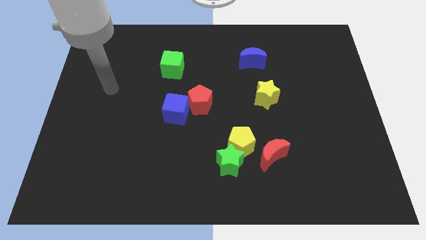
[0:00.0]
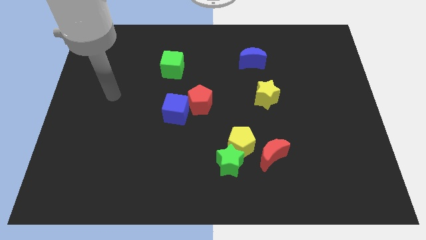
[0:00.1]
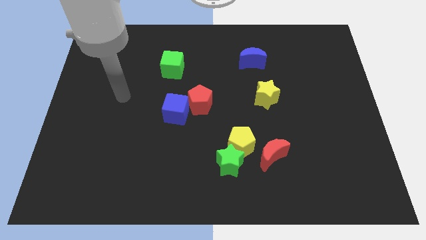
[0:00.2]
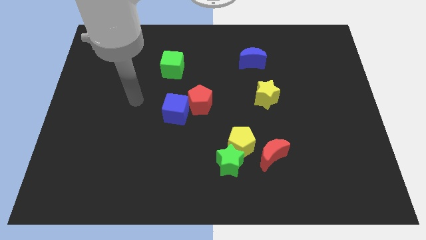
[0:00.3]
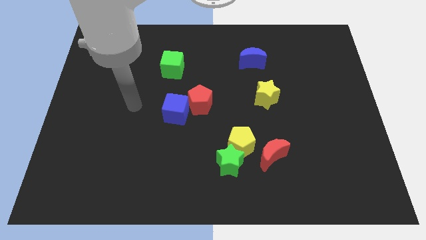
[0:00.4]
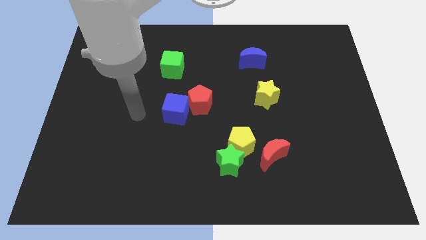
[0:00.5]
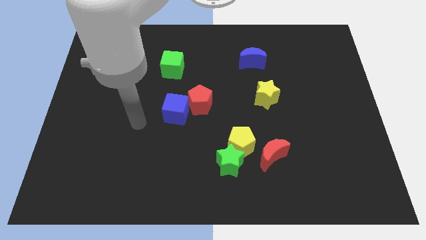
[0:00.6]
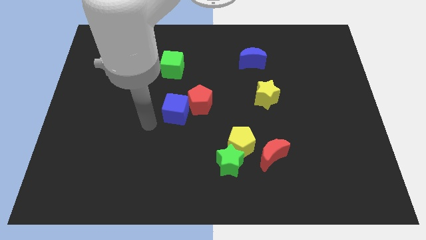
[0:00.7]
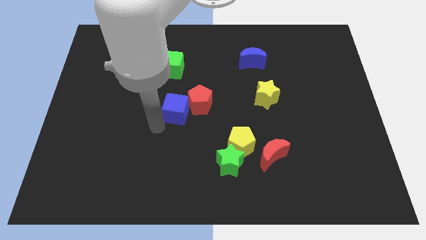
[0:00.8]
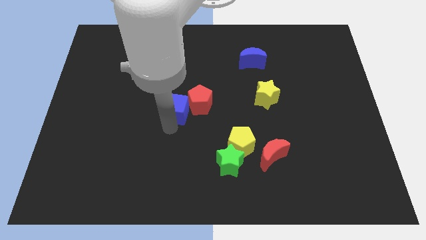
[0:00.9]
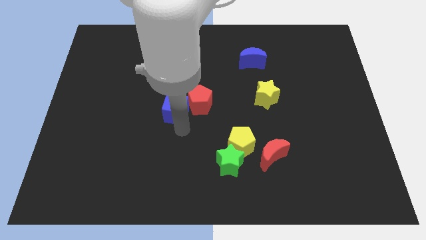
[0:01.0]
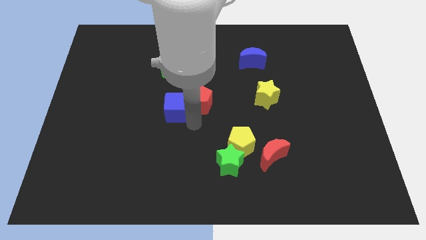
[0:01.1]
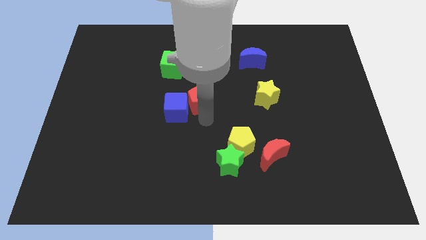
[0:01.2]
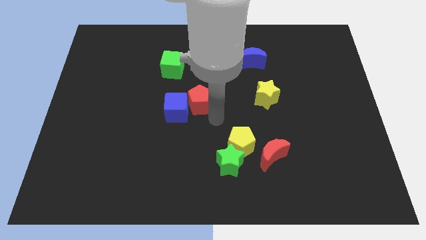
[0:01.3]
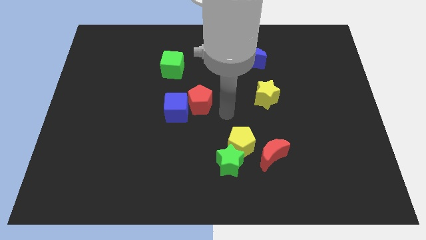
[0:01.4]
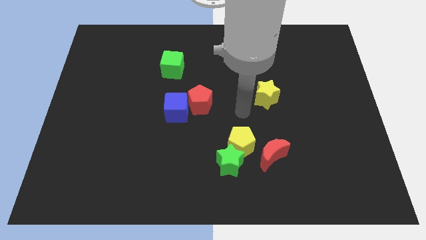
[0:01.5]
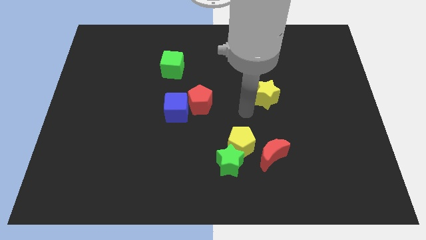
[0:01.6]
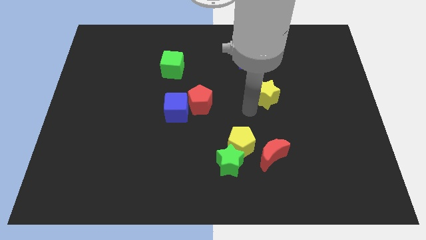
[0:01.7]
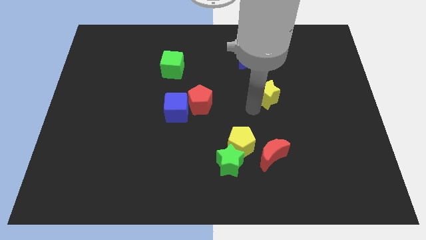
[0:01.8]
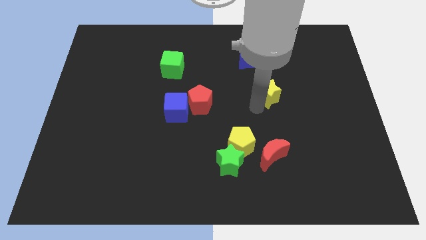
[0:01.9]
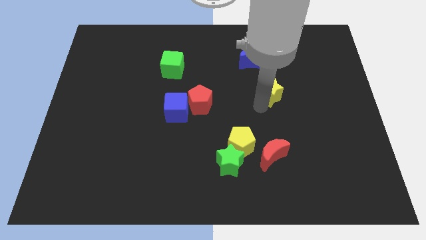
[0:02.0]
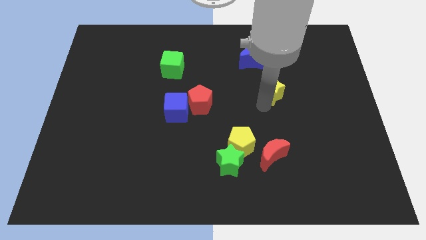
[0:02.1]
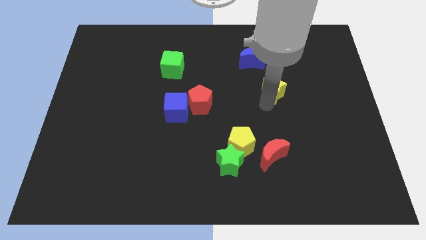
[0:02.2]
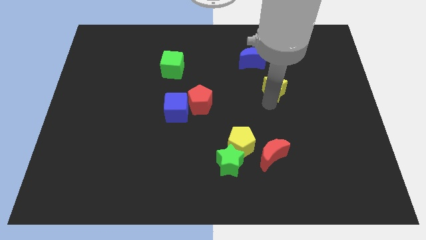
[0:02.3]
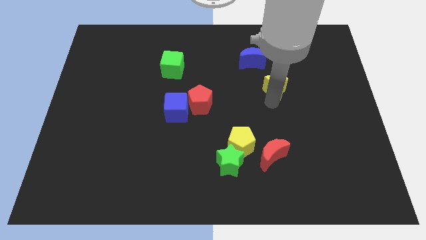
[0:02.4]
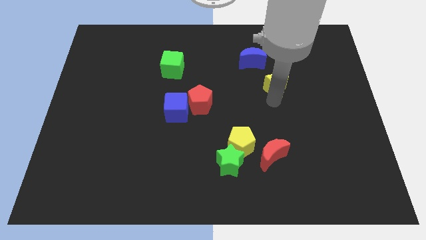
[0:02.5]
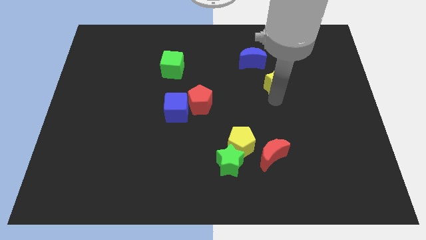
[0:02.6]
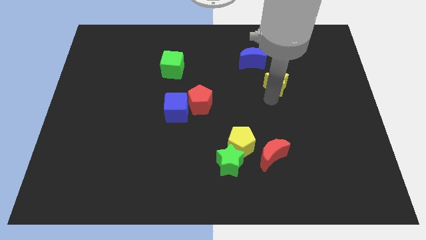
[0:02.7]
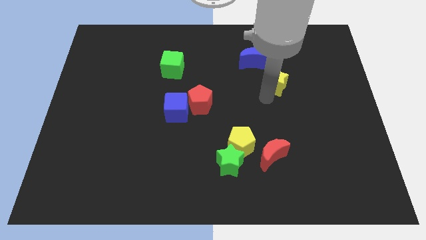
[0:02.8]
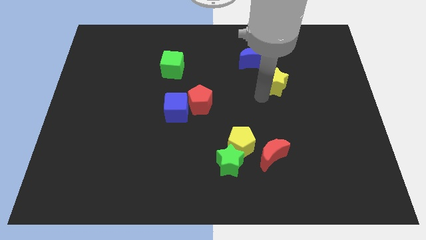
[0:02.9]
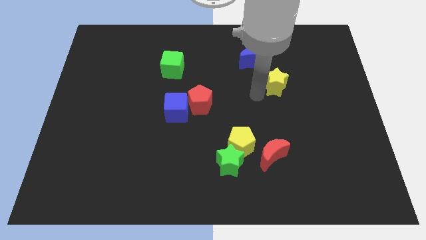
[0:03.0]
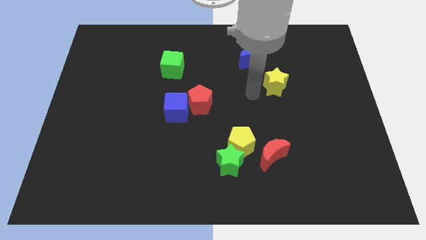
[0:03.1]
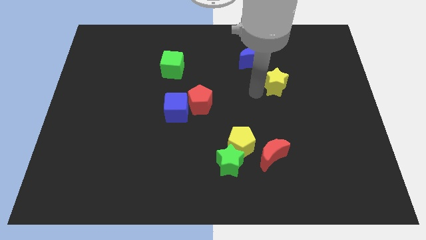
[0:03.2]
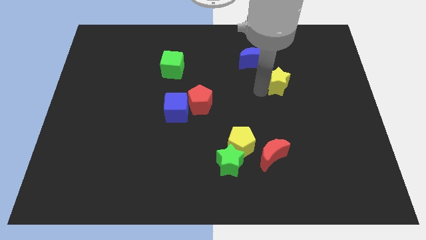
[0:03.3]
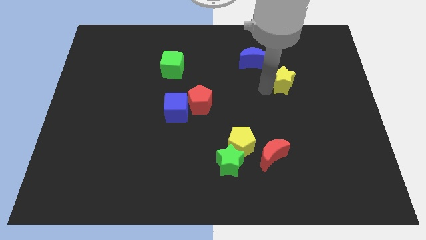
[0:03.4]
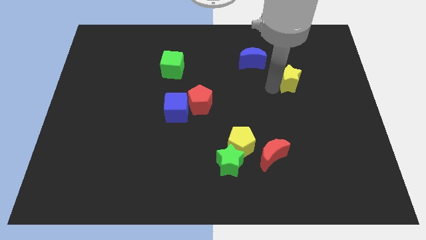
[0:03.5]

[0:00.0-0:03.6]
slide the yellow star up and to the right diagonally slightly

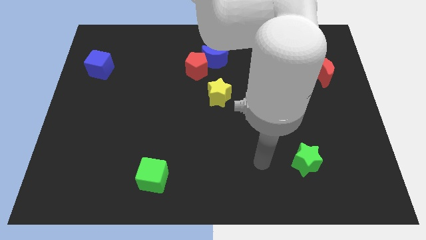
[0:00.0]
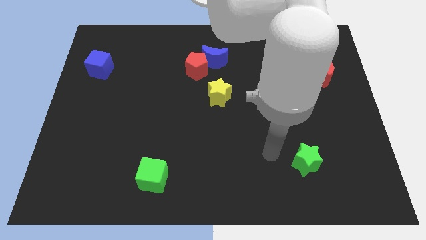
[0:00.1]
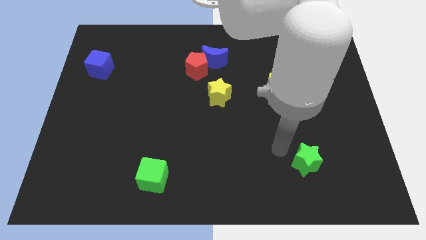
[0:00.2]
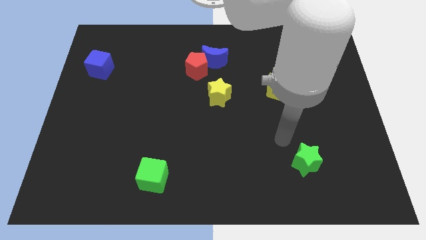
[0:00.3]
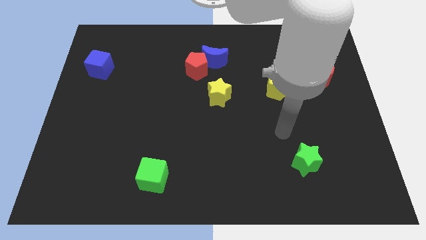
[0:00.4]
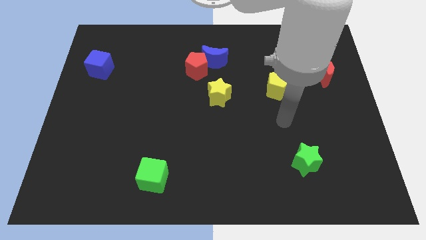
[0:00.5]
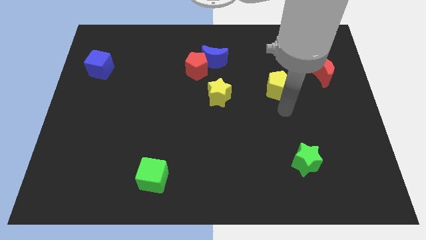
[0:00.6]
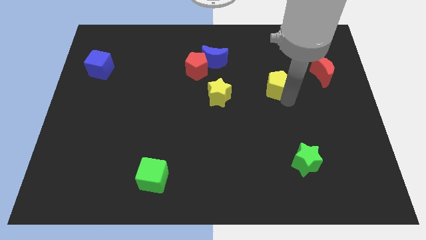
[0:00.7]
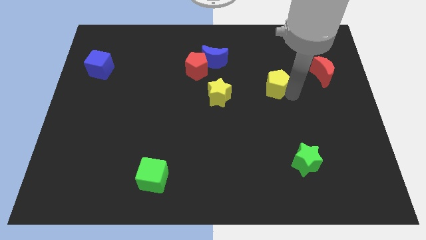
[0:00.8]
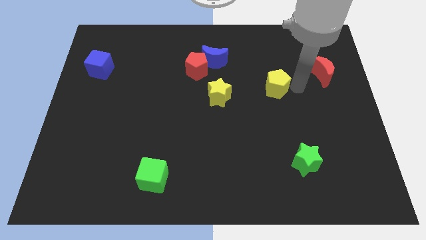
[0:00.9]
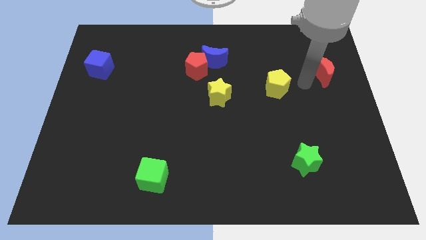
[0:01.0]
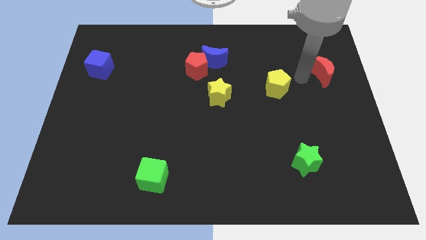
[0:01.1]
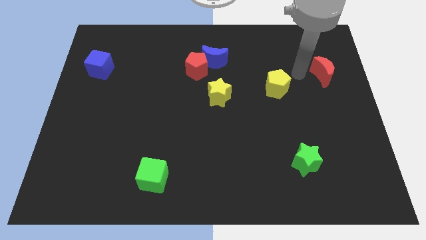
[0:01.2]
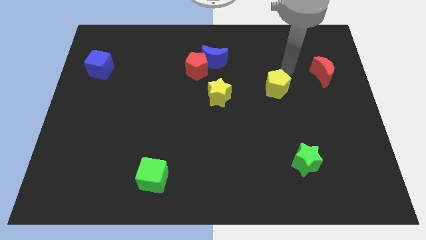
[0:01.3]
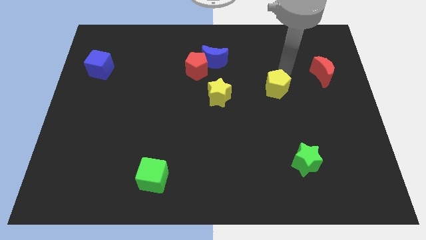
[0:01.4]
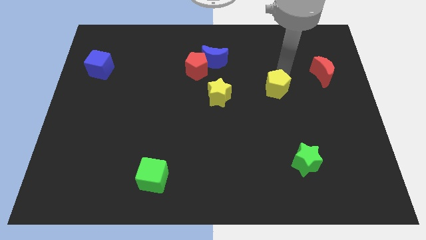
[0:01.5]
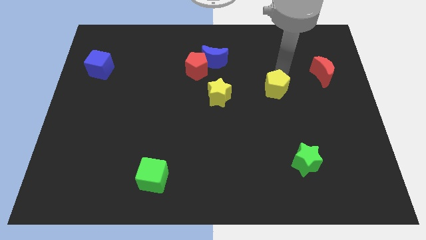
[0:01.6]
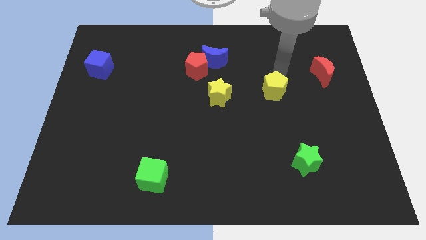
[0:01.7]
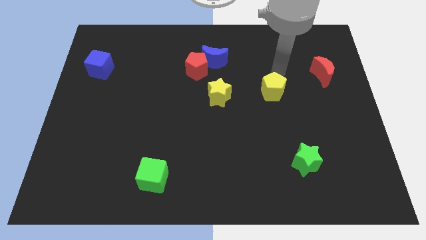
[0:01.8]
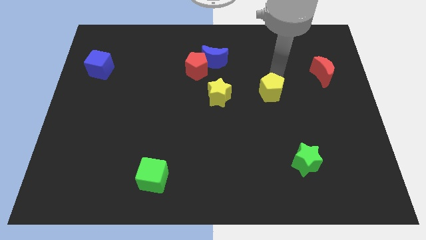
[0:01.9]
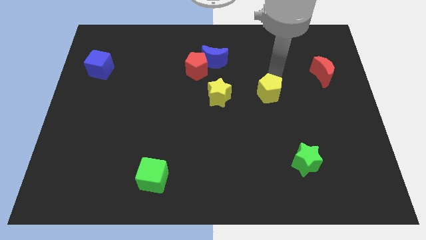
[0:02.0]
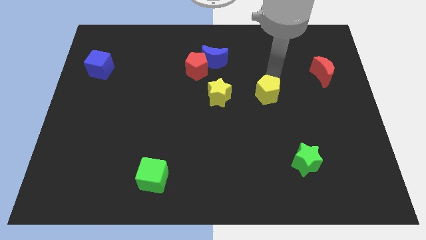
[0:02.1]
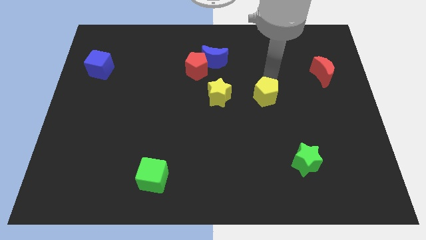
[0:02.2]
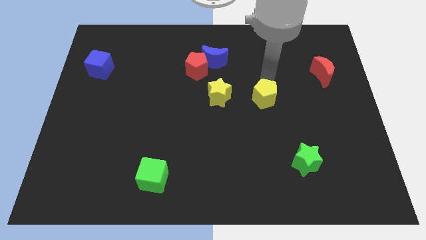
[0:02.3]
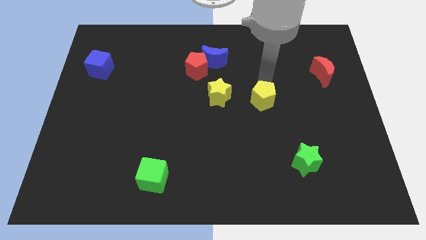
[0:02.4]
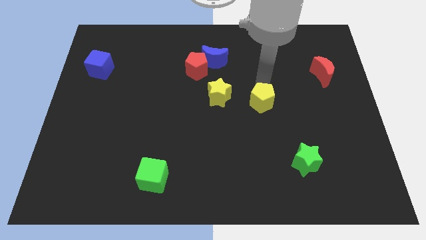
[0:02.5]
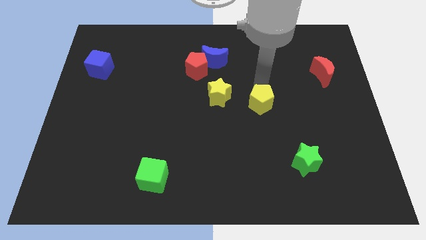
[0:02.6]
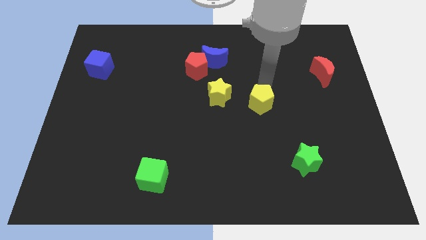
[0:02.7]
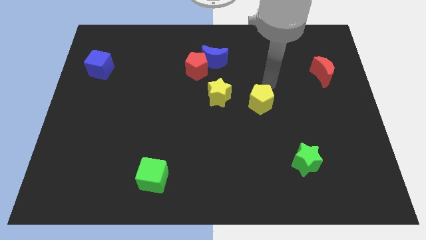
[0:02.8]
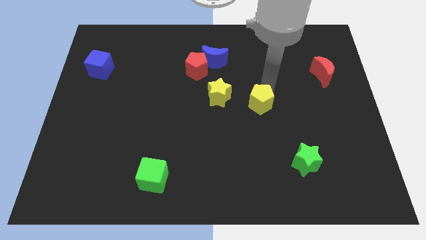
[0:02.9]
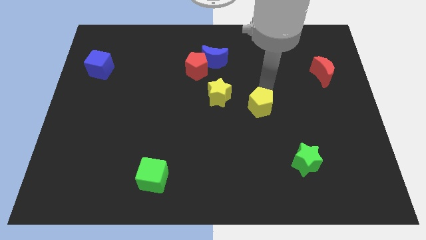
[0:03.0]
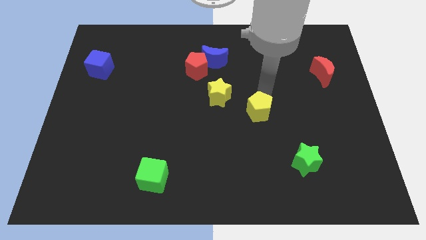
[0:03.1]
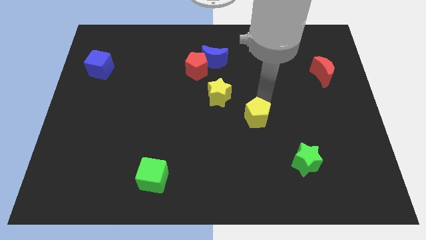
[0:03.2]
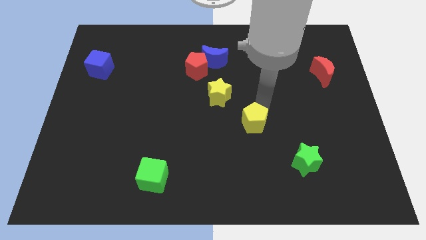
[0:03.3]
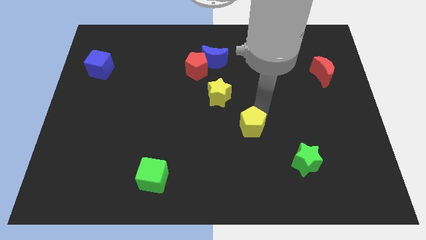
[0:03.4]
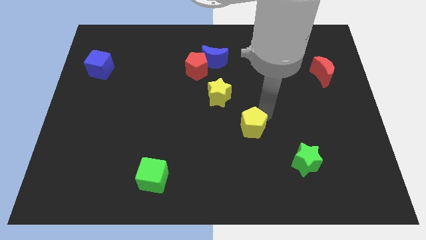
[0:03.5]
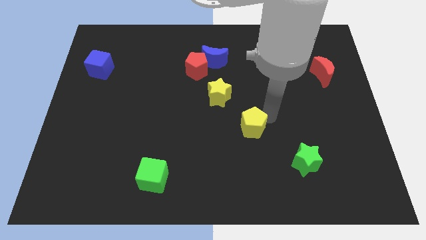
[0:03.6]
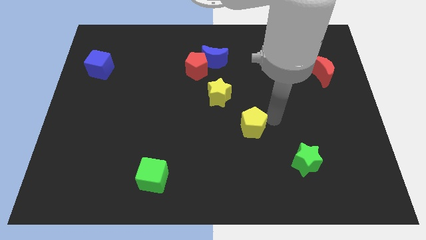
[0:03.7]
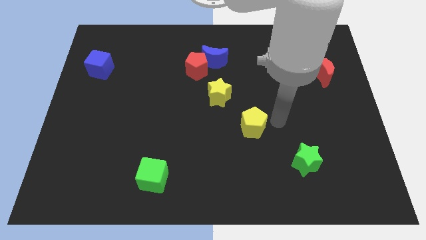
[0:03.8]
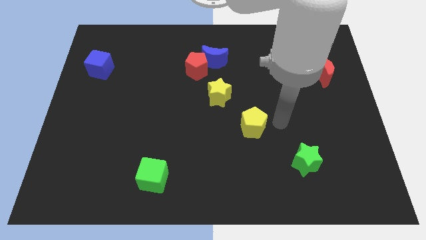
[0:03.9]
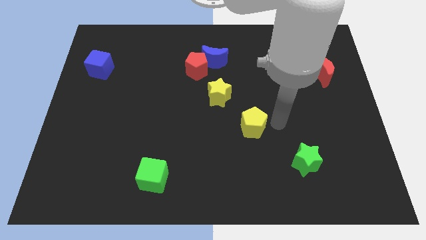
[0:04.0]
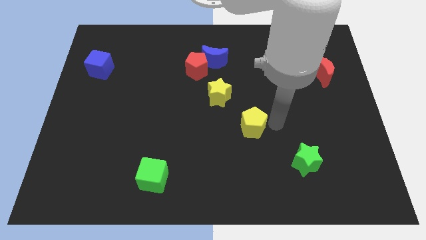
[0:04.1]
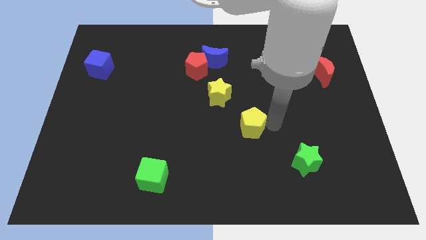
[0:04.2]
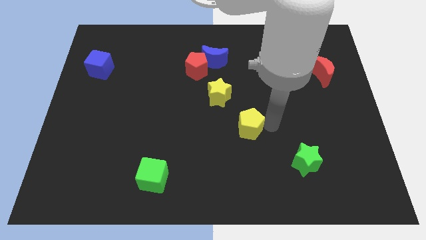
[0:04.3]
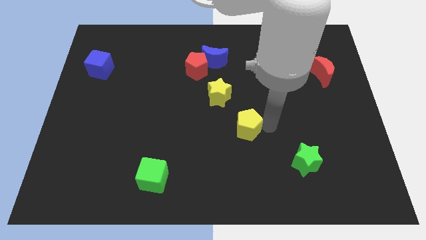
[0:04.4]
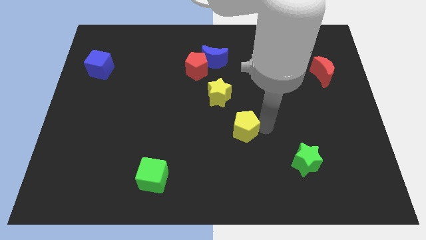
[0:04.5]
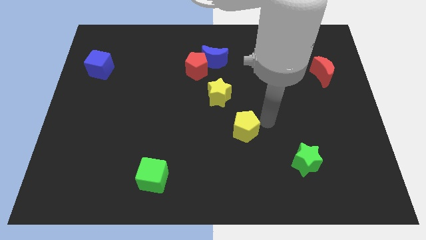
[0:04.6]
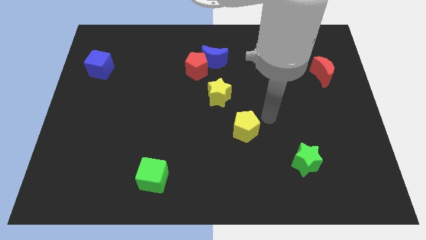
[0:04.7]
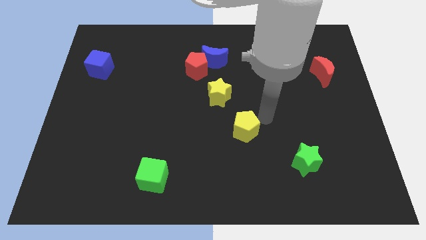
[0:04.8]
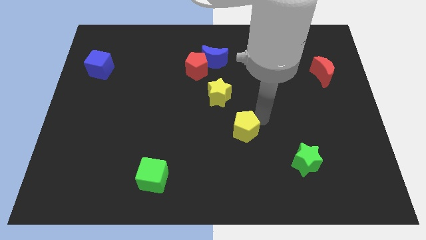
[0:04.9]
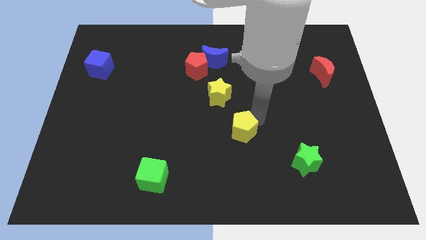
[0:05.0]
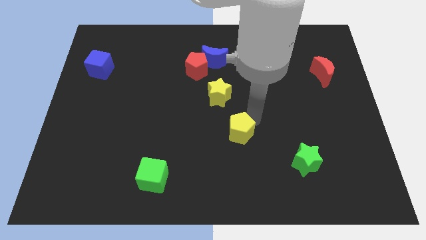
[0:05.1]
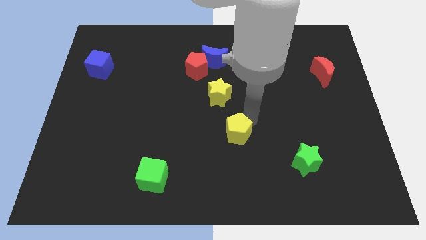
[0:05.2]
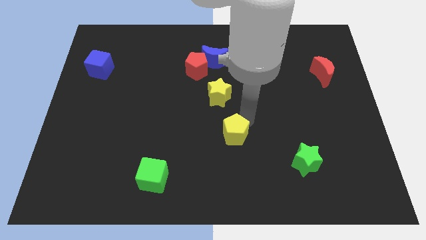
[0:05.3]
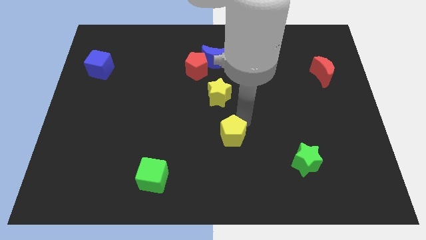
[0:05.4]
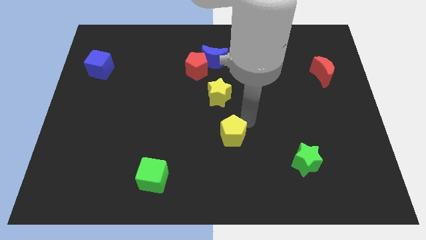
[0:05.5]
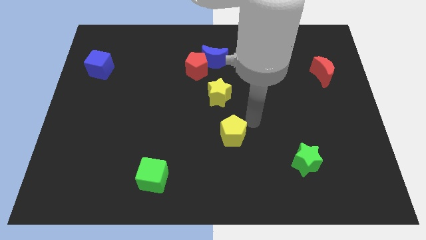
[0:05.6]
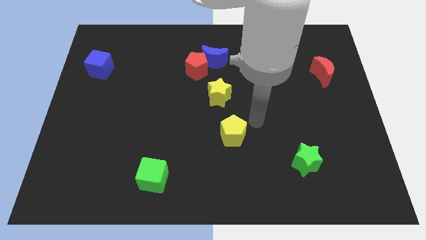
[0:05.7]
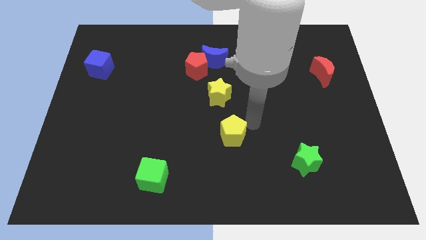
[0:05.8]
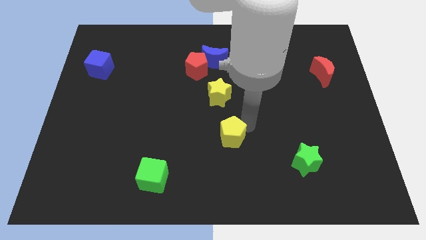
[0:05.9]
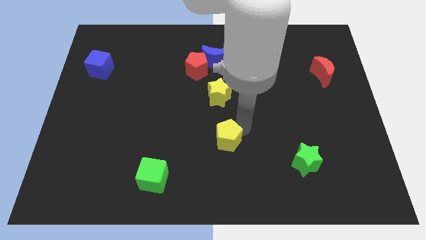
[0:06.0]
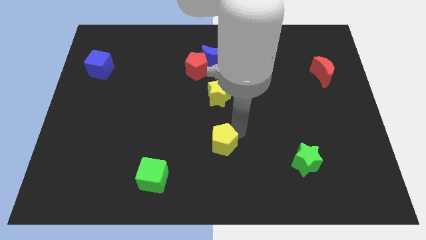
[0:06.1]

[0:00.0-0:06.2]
move the yellow pentagon diagonally downwards and to the left
